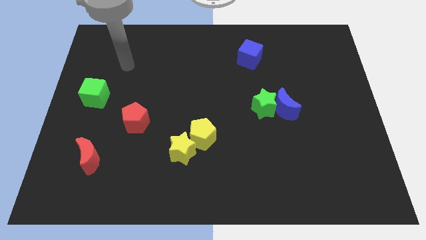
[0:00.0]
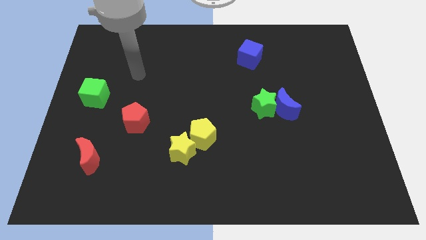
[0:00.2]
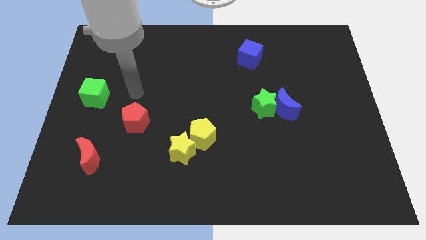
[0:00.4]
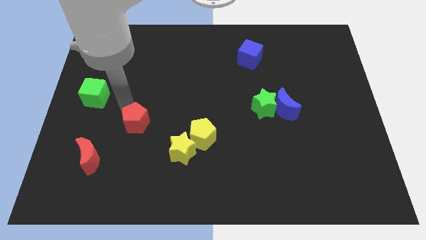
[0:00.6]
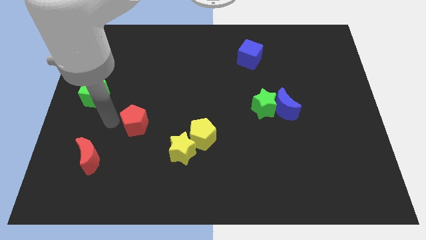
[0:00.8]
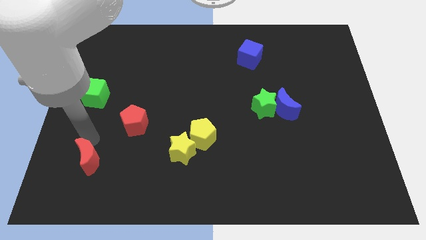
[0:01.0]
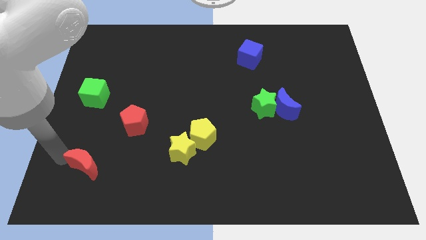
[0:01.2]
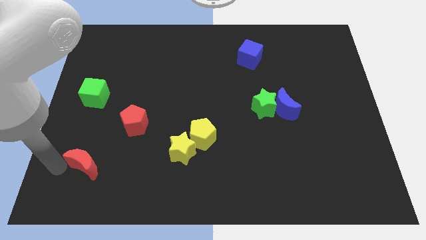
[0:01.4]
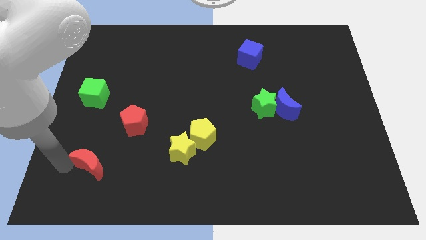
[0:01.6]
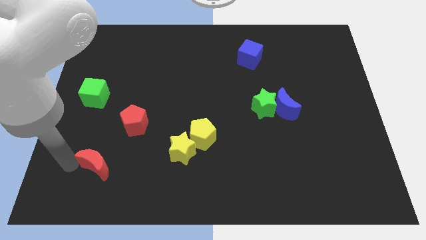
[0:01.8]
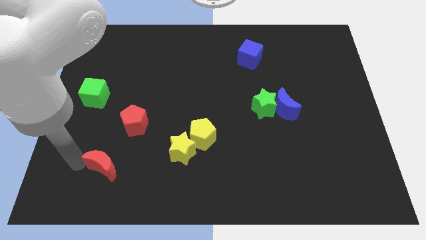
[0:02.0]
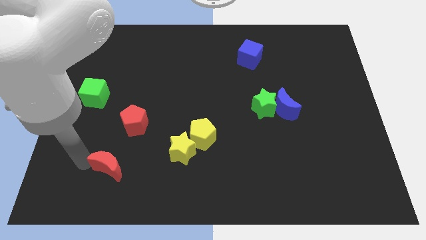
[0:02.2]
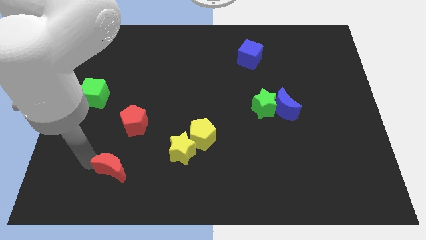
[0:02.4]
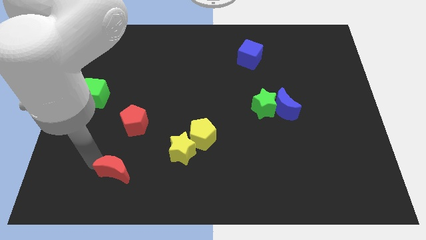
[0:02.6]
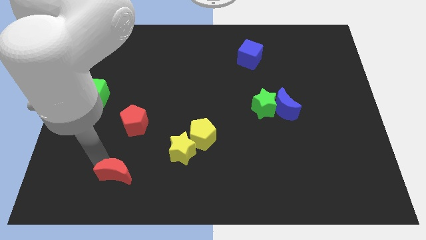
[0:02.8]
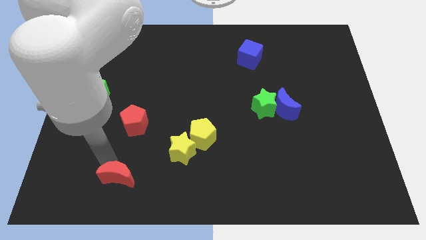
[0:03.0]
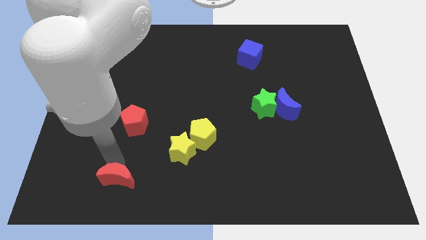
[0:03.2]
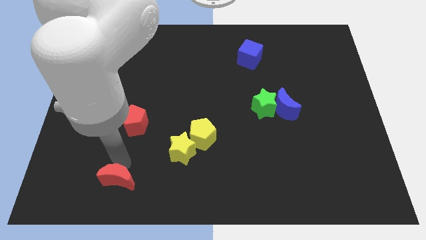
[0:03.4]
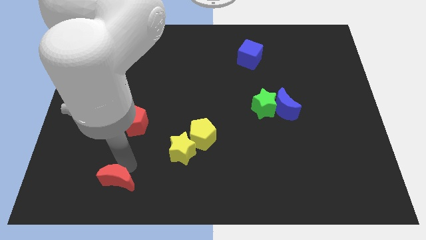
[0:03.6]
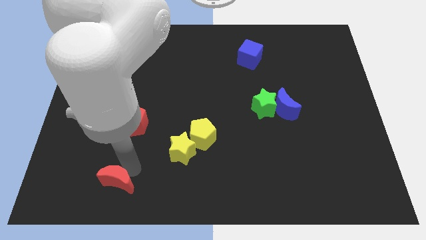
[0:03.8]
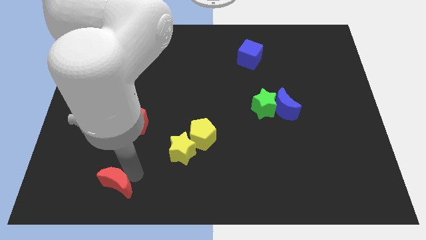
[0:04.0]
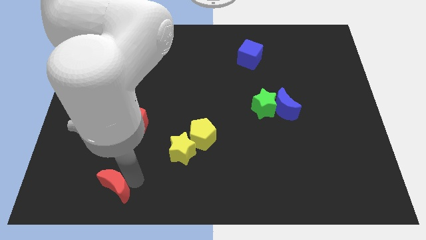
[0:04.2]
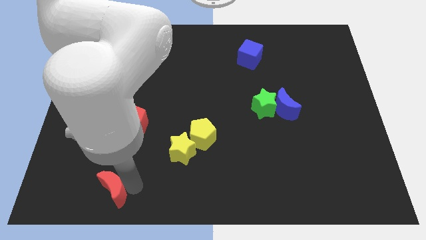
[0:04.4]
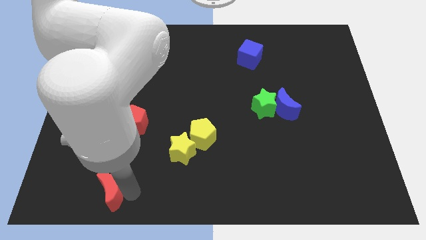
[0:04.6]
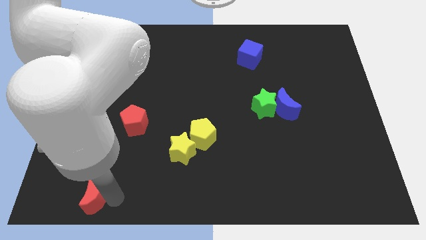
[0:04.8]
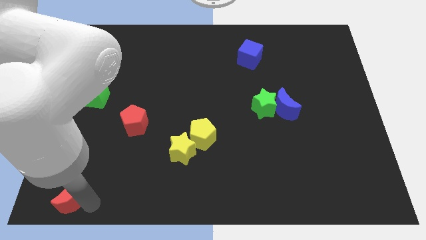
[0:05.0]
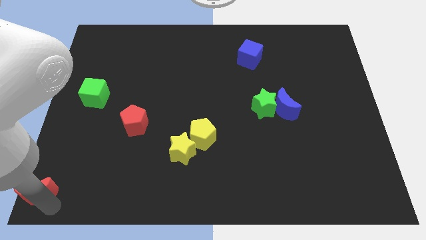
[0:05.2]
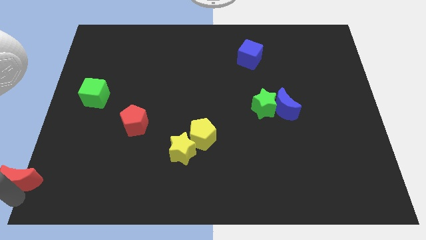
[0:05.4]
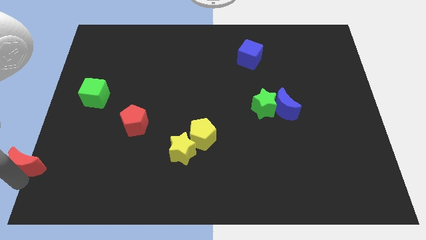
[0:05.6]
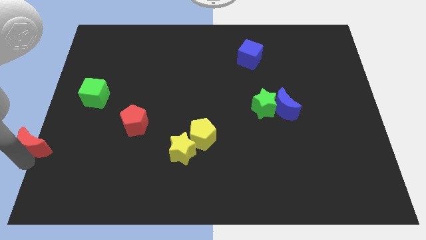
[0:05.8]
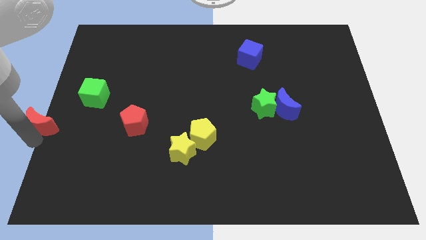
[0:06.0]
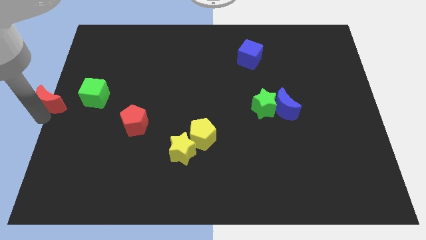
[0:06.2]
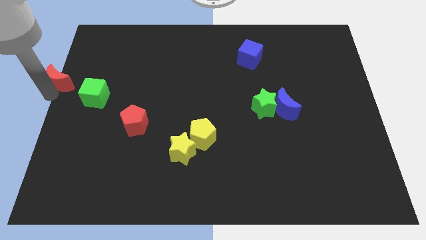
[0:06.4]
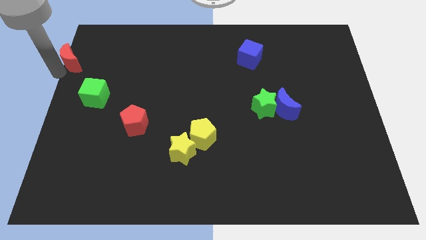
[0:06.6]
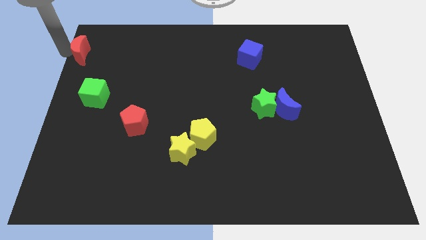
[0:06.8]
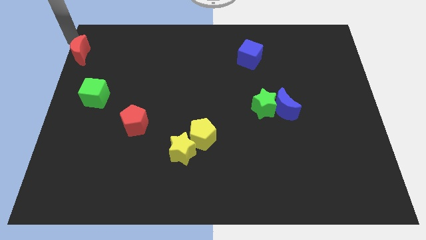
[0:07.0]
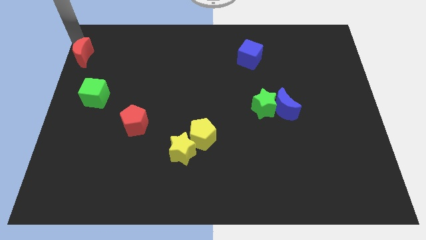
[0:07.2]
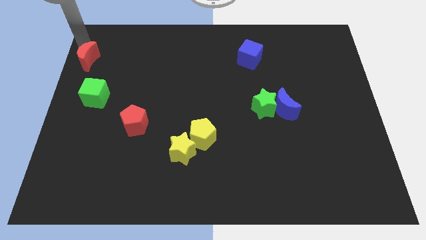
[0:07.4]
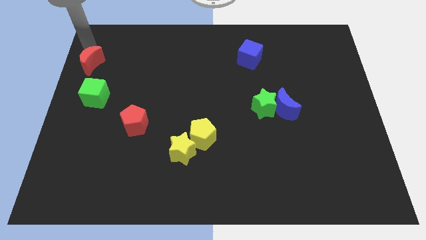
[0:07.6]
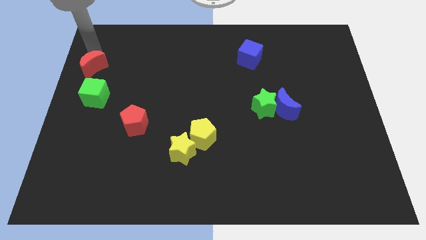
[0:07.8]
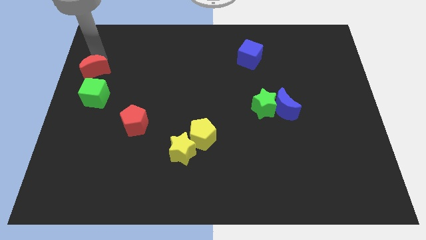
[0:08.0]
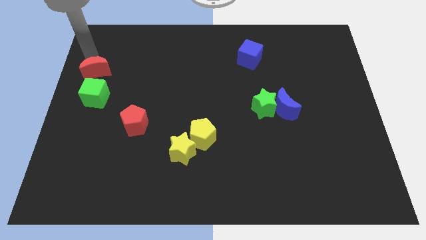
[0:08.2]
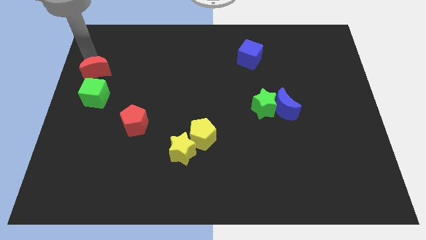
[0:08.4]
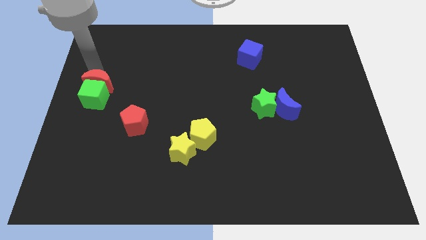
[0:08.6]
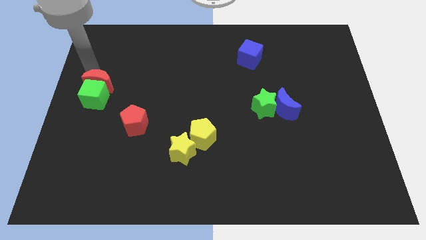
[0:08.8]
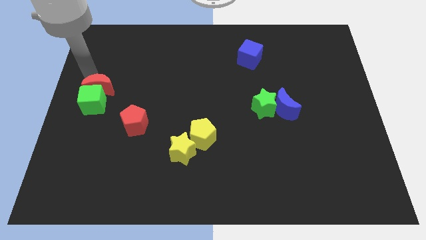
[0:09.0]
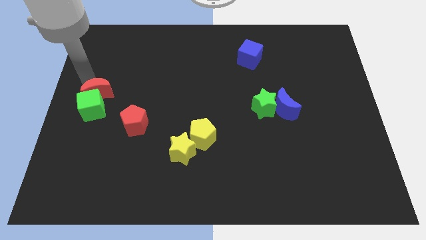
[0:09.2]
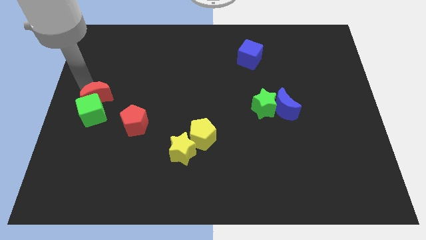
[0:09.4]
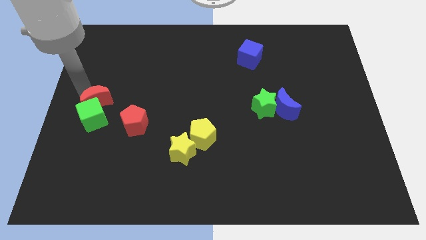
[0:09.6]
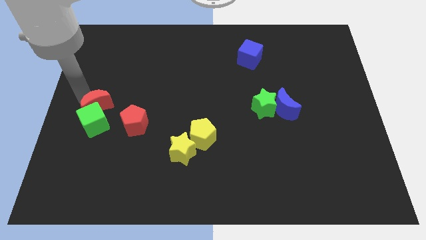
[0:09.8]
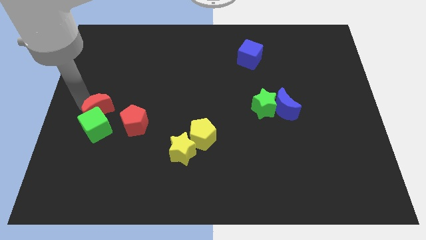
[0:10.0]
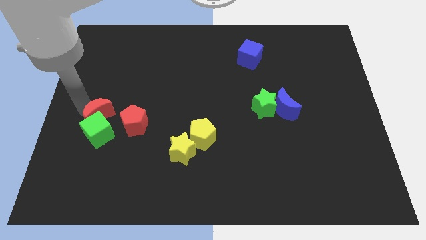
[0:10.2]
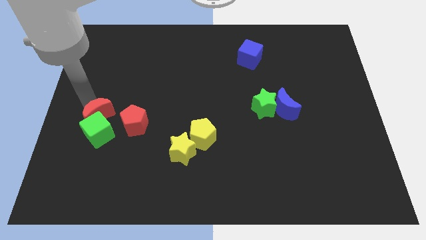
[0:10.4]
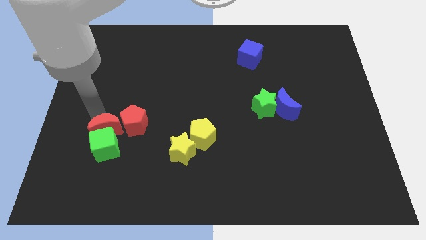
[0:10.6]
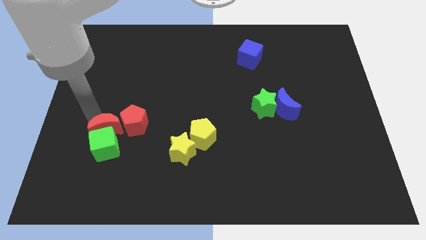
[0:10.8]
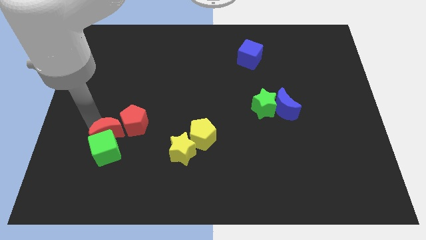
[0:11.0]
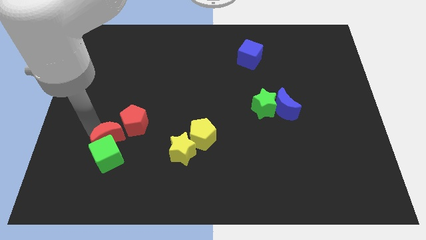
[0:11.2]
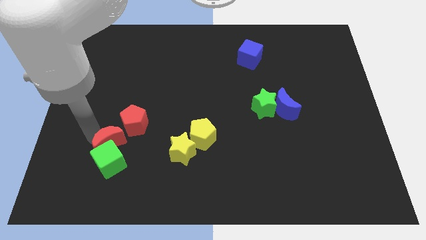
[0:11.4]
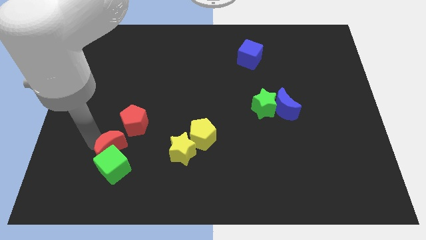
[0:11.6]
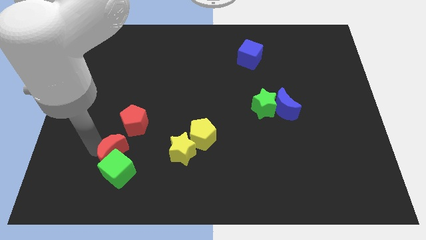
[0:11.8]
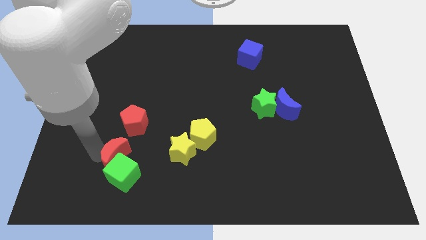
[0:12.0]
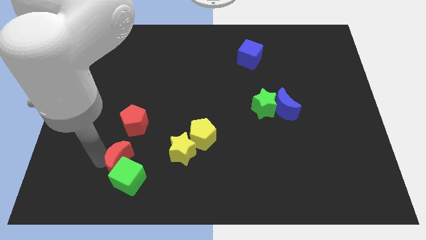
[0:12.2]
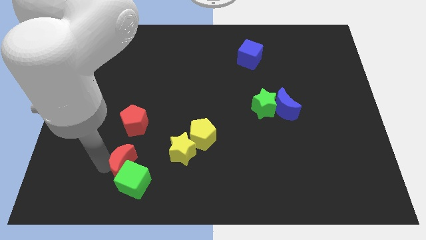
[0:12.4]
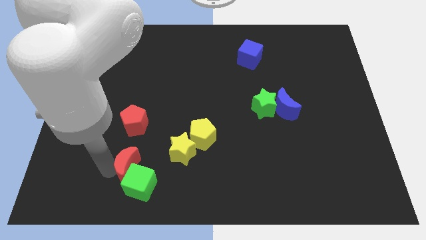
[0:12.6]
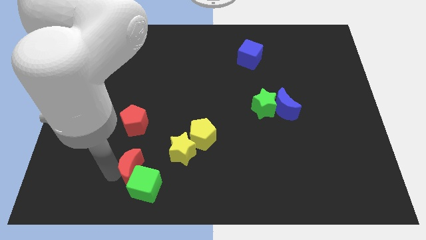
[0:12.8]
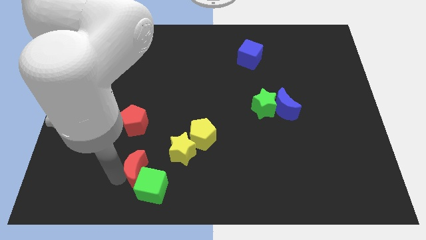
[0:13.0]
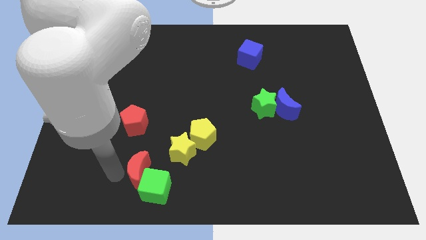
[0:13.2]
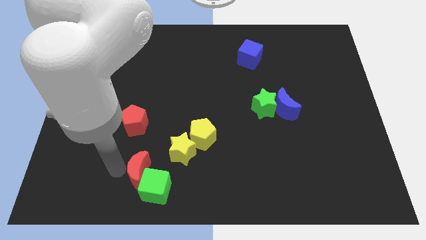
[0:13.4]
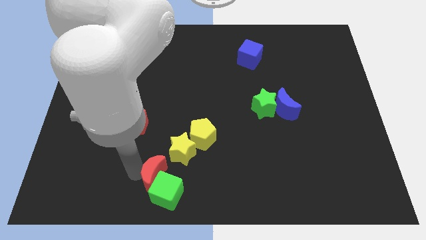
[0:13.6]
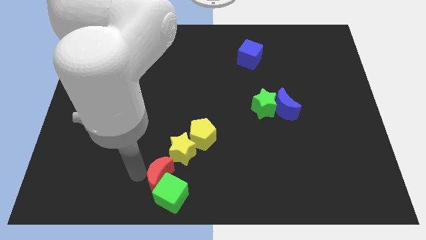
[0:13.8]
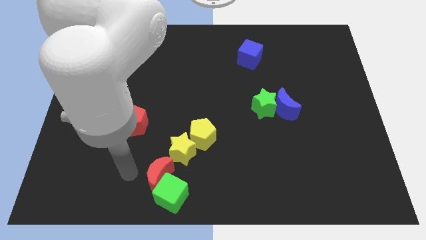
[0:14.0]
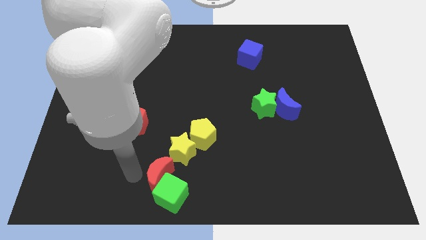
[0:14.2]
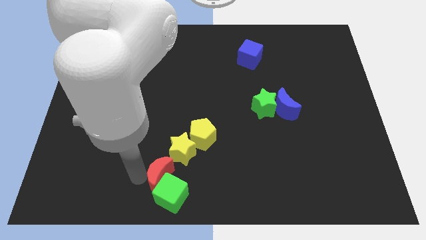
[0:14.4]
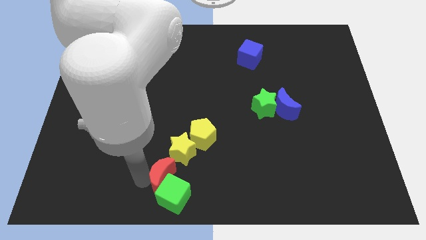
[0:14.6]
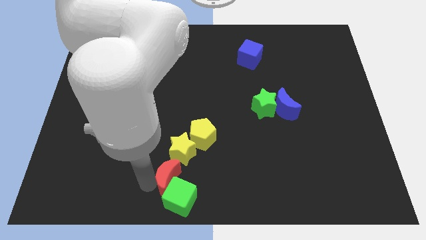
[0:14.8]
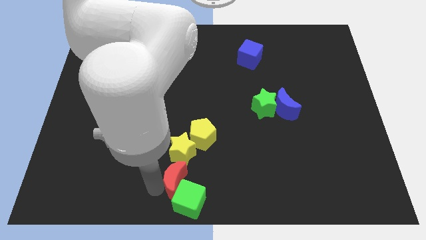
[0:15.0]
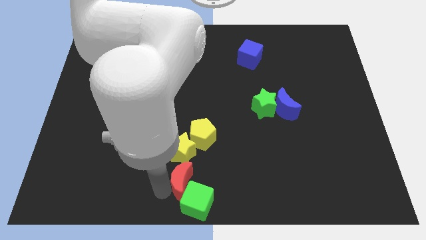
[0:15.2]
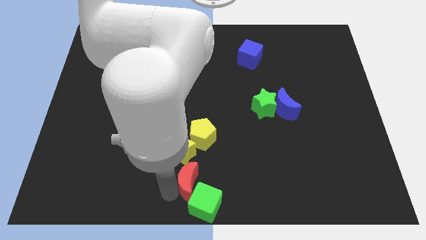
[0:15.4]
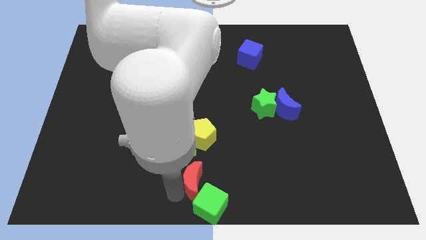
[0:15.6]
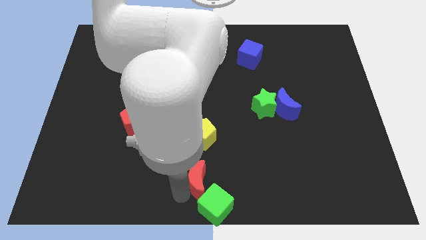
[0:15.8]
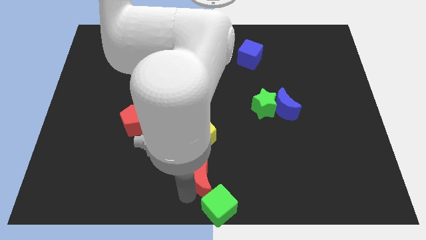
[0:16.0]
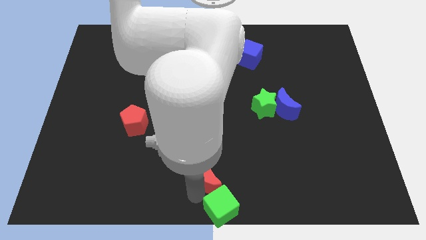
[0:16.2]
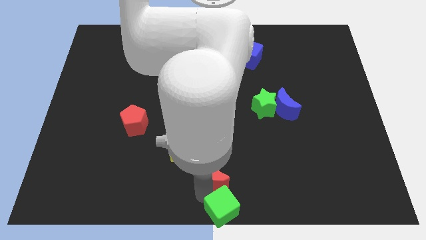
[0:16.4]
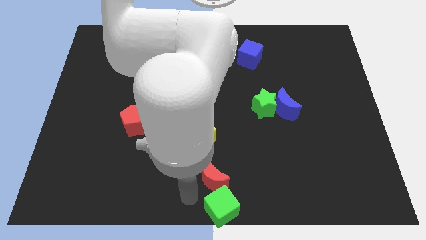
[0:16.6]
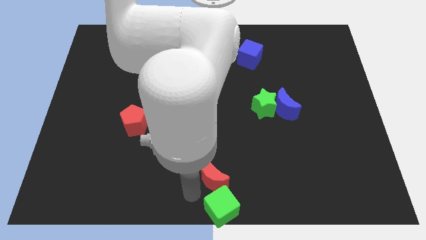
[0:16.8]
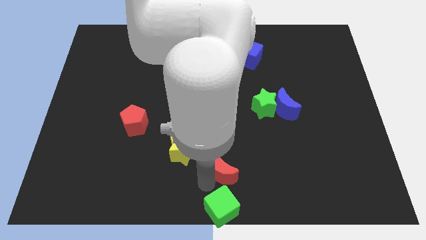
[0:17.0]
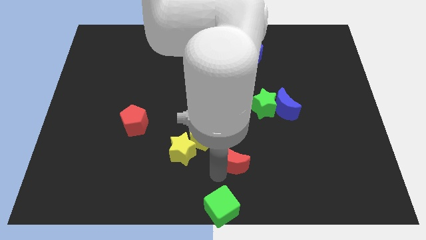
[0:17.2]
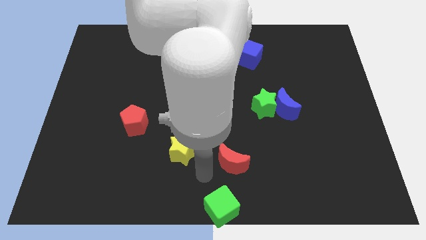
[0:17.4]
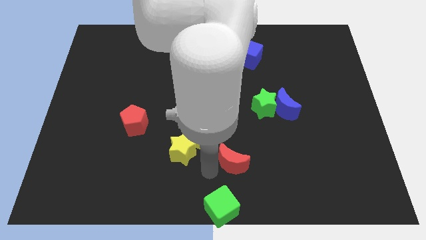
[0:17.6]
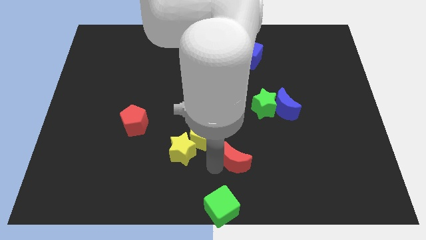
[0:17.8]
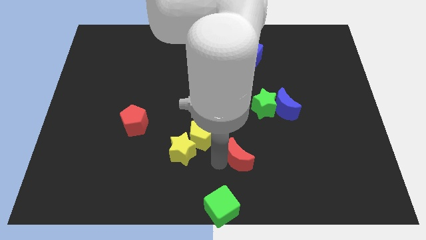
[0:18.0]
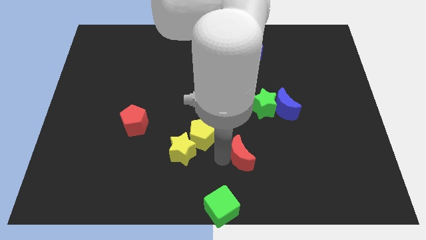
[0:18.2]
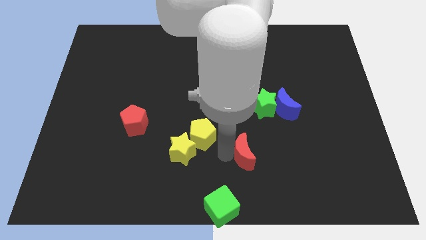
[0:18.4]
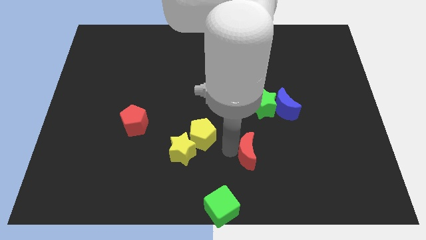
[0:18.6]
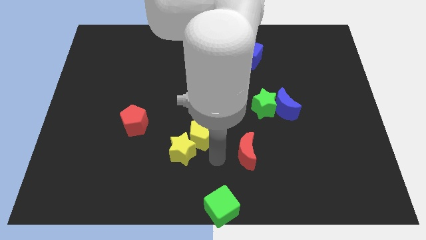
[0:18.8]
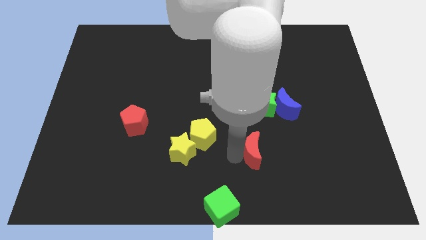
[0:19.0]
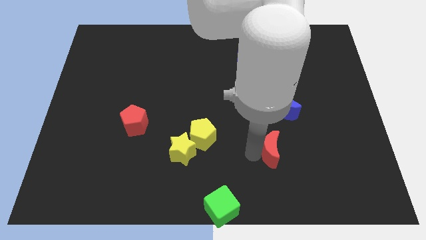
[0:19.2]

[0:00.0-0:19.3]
slide the red moon below the blue moon
